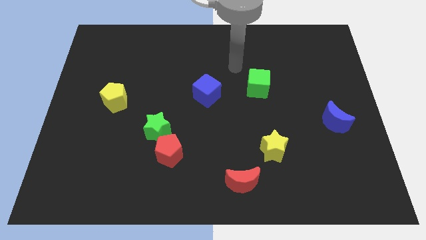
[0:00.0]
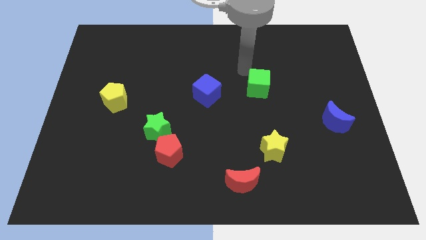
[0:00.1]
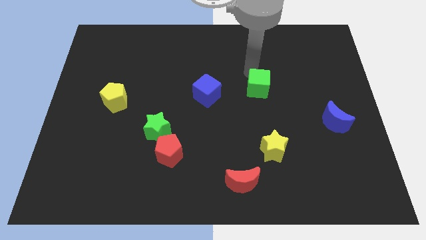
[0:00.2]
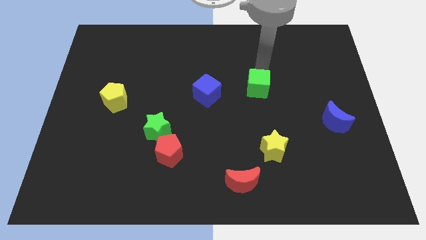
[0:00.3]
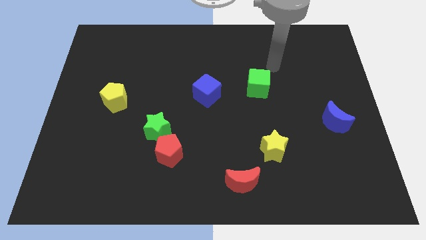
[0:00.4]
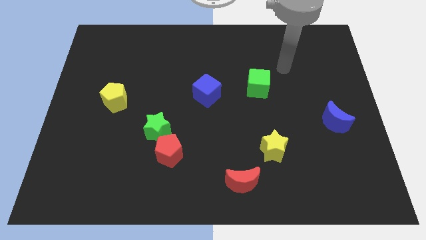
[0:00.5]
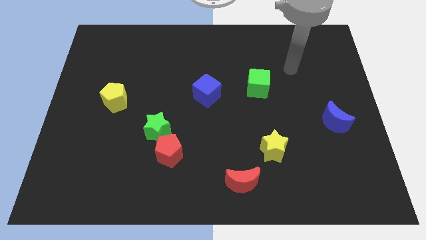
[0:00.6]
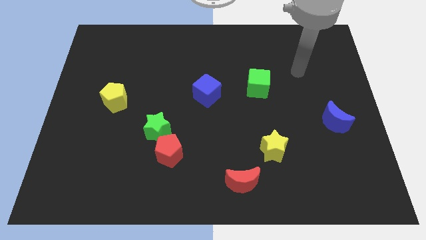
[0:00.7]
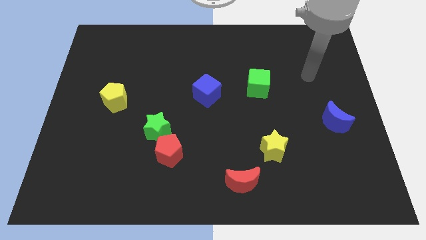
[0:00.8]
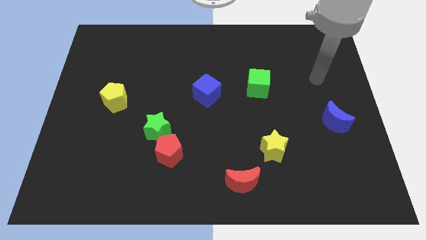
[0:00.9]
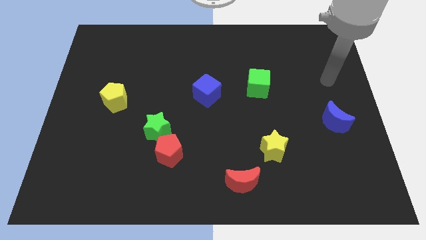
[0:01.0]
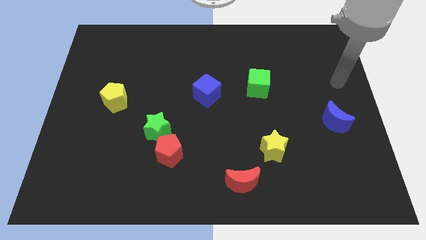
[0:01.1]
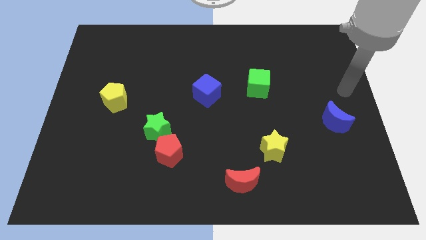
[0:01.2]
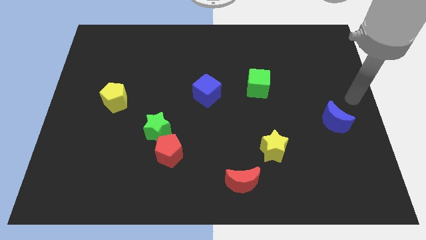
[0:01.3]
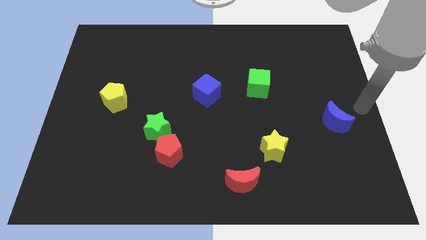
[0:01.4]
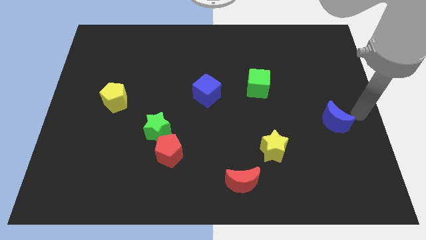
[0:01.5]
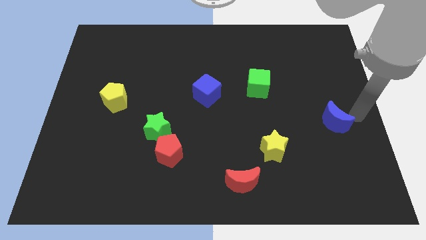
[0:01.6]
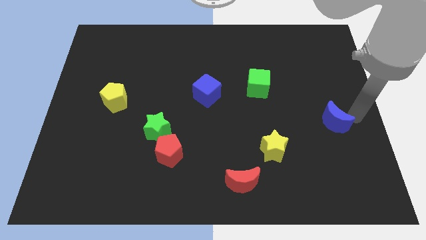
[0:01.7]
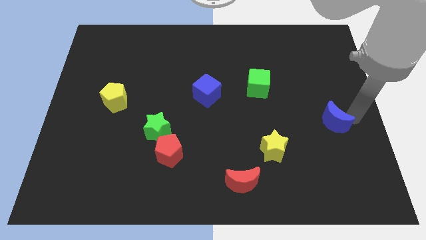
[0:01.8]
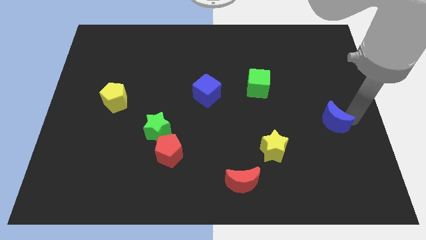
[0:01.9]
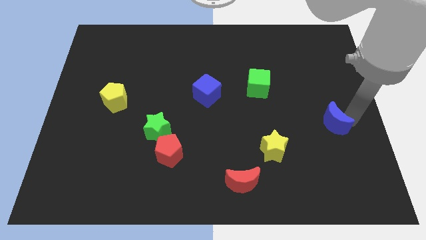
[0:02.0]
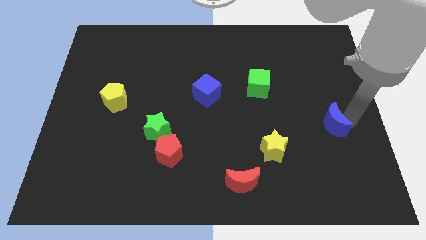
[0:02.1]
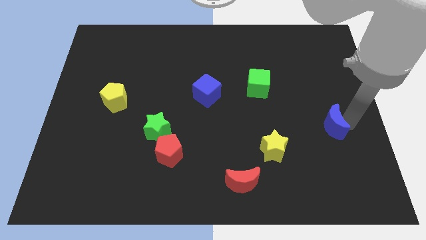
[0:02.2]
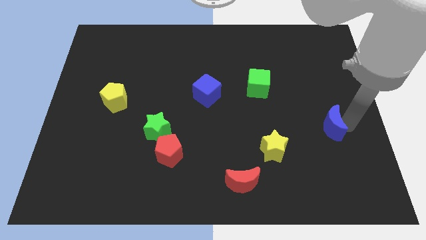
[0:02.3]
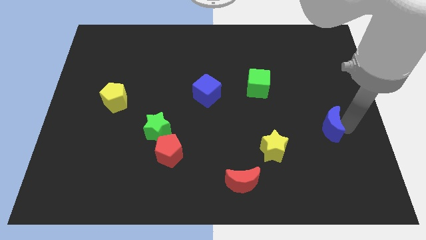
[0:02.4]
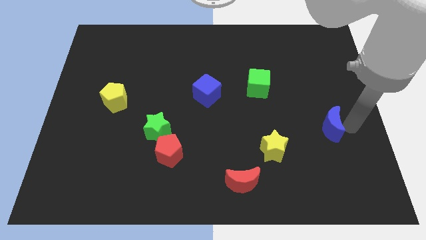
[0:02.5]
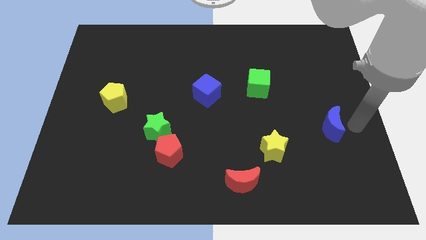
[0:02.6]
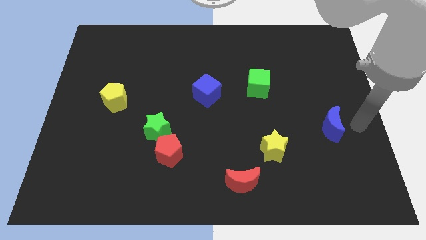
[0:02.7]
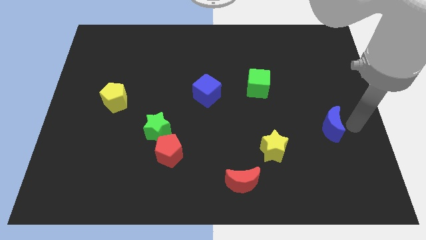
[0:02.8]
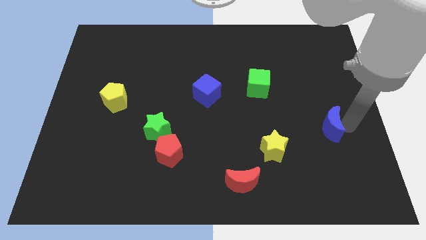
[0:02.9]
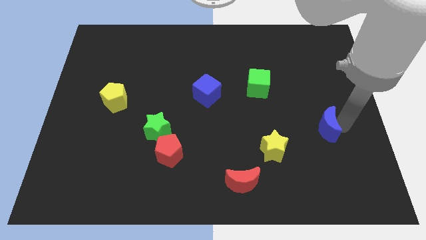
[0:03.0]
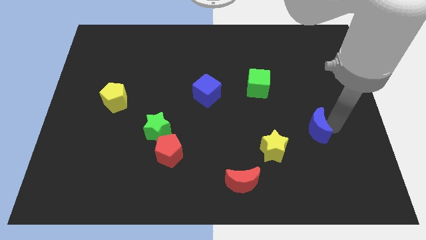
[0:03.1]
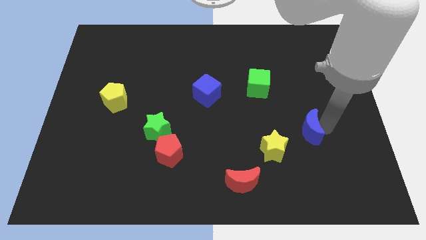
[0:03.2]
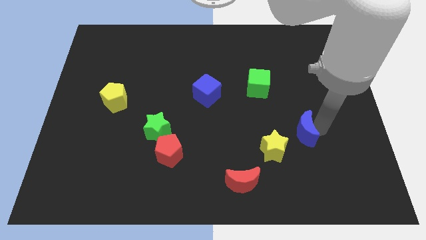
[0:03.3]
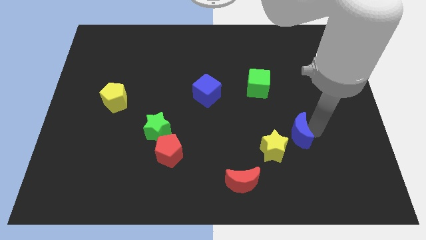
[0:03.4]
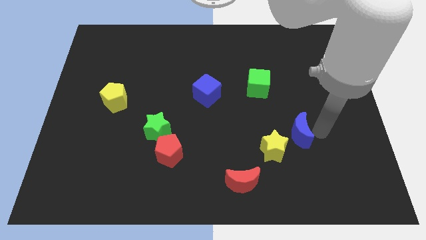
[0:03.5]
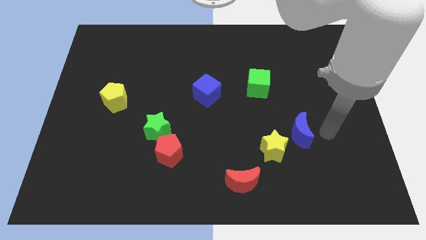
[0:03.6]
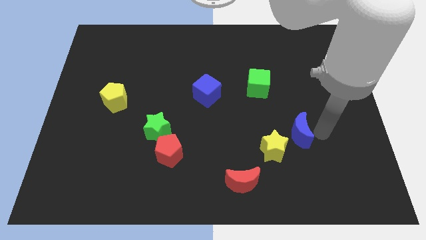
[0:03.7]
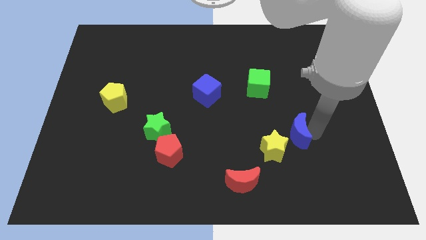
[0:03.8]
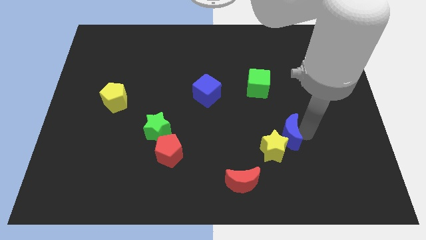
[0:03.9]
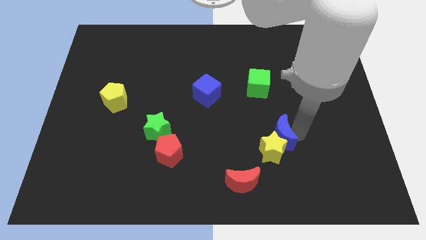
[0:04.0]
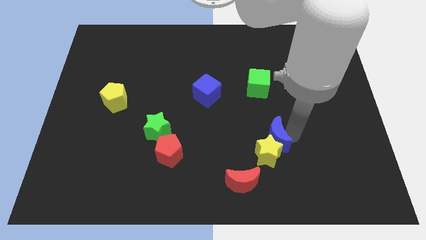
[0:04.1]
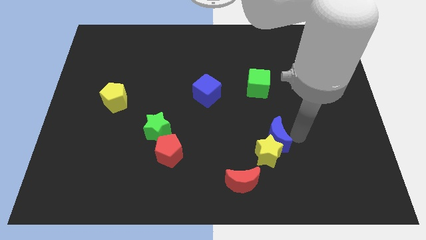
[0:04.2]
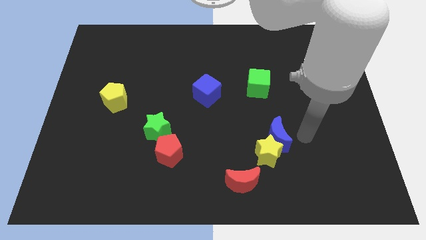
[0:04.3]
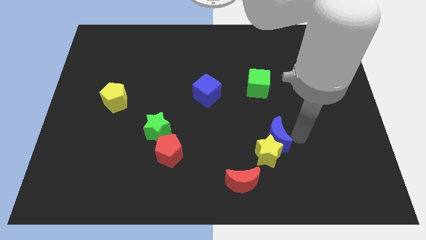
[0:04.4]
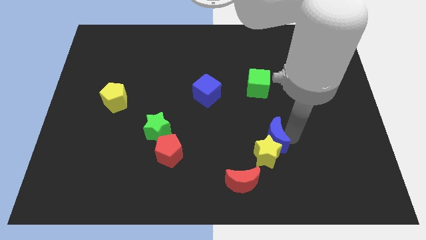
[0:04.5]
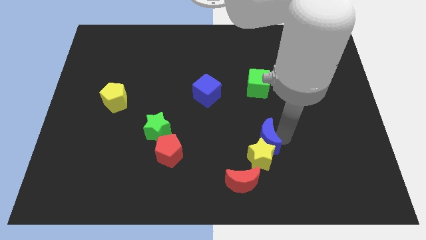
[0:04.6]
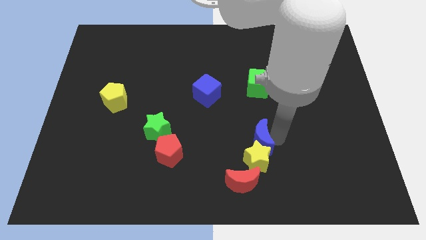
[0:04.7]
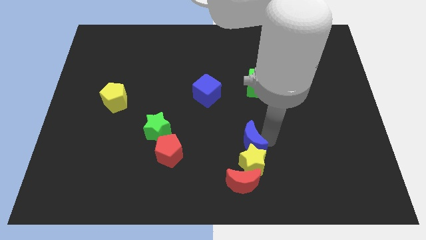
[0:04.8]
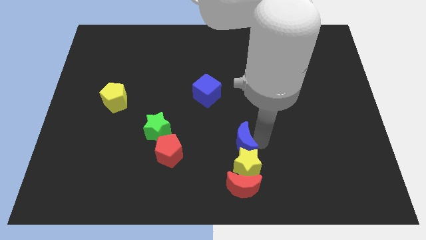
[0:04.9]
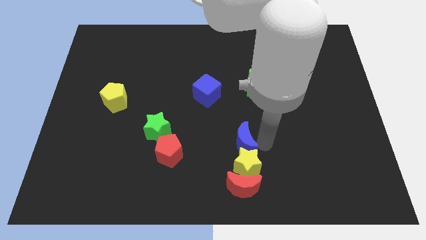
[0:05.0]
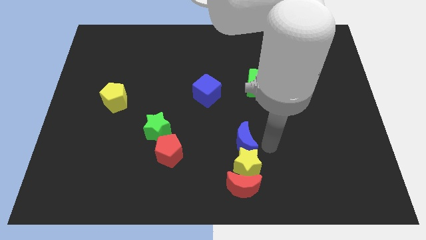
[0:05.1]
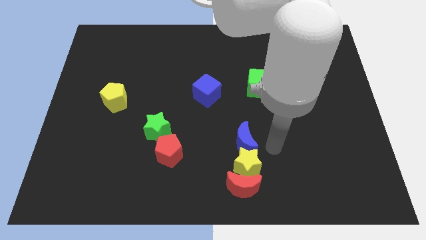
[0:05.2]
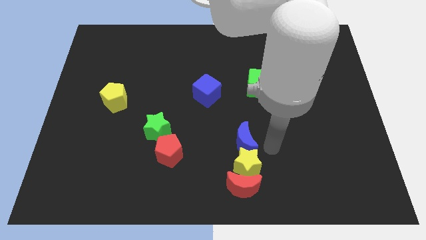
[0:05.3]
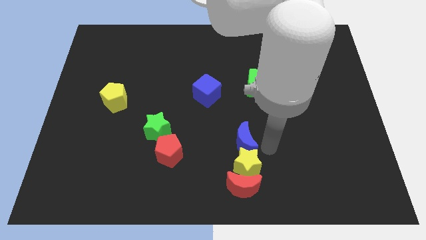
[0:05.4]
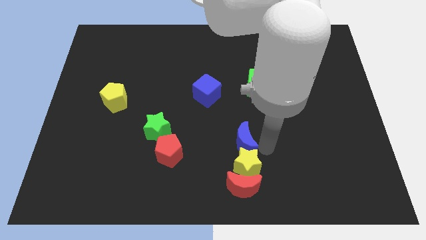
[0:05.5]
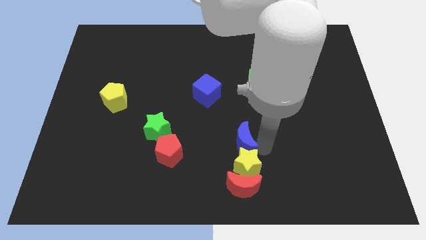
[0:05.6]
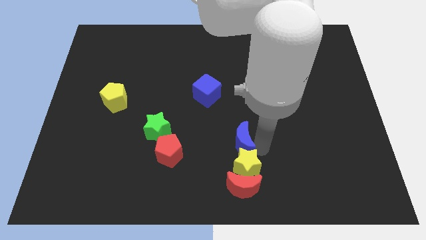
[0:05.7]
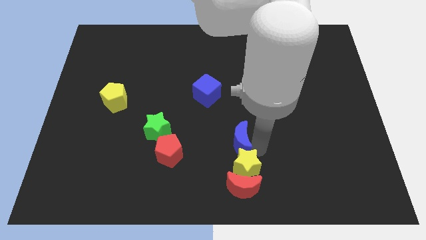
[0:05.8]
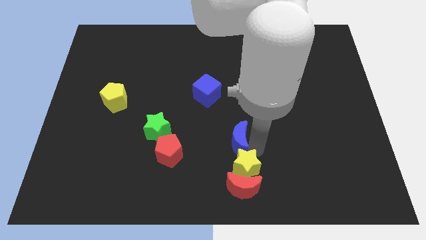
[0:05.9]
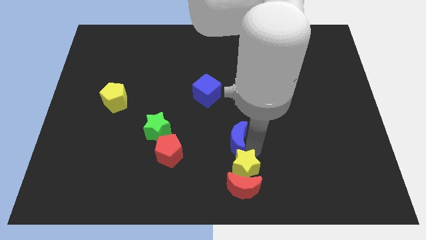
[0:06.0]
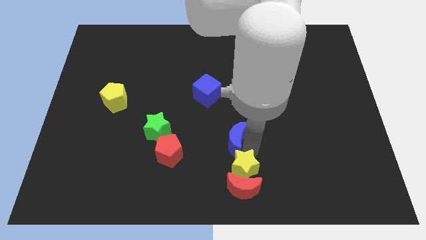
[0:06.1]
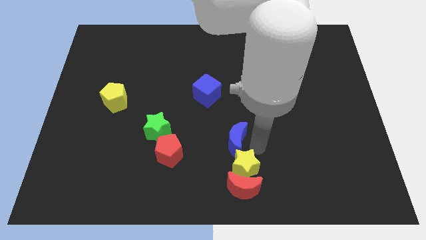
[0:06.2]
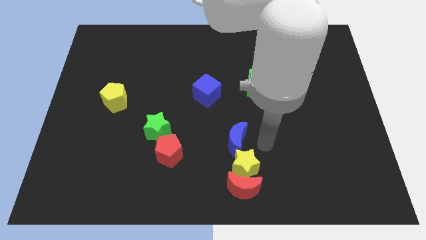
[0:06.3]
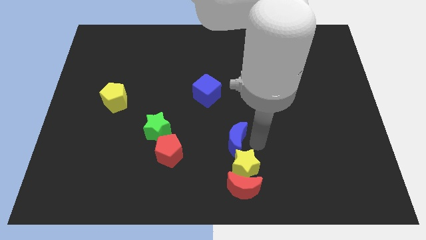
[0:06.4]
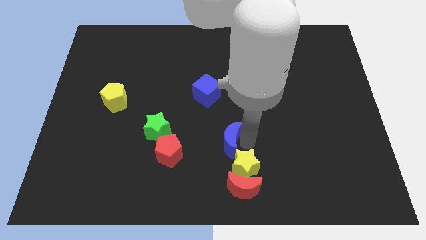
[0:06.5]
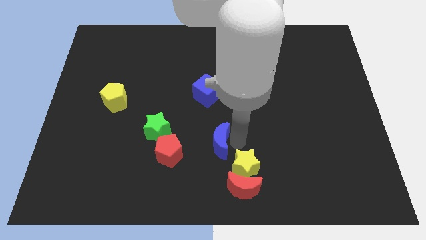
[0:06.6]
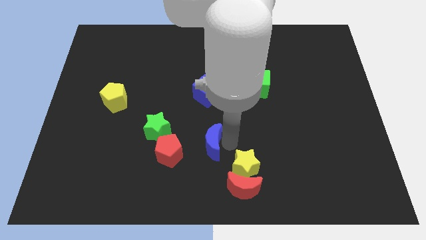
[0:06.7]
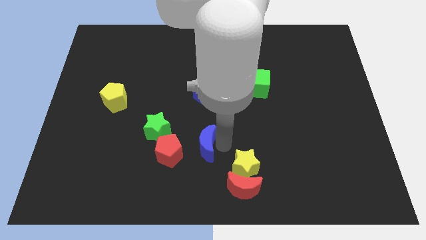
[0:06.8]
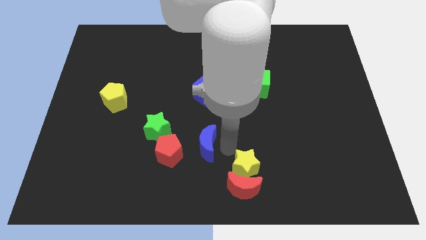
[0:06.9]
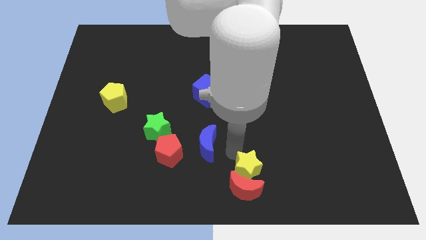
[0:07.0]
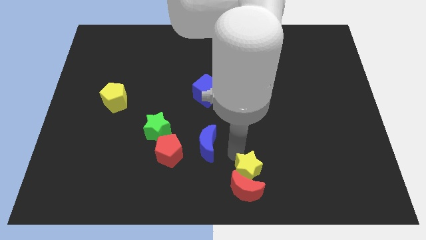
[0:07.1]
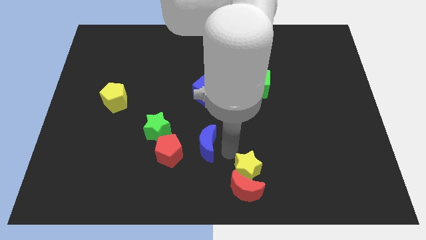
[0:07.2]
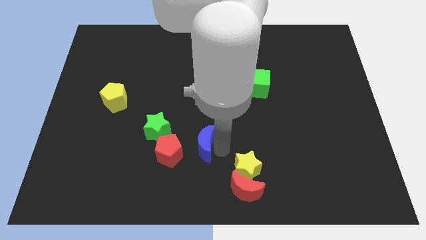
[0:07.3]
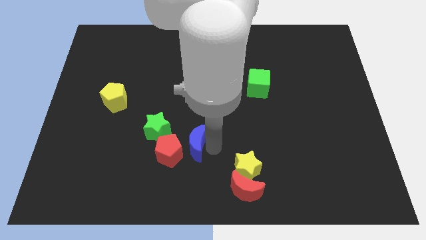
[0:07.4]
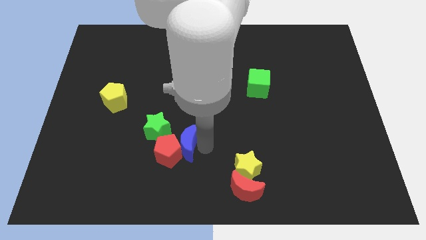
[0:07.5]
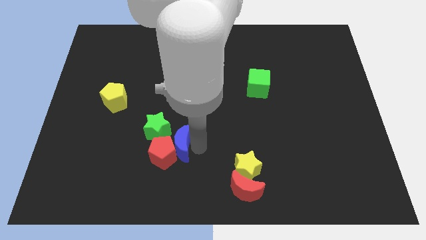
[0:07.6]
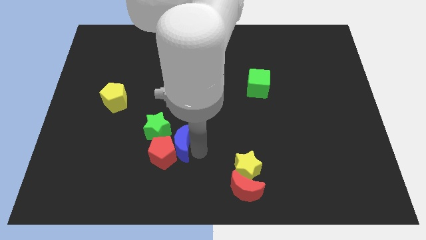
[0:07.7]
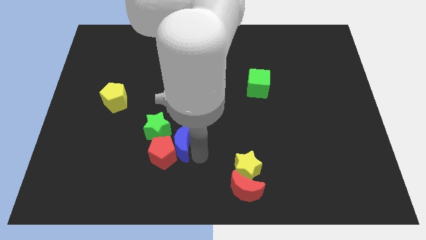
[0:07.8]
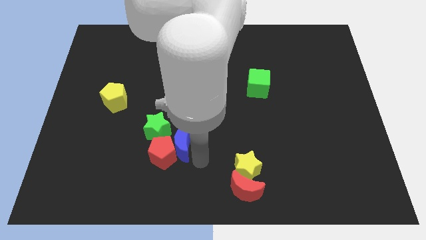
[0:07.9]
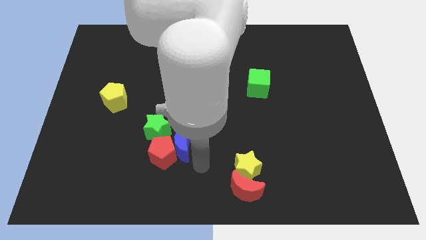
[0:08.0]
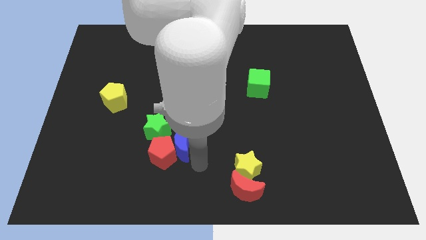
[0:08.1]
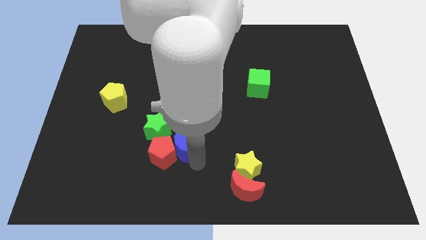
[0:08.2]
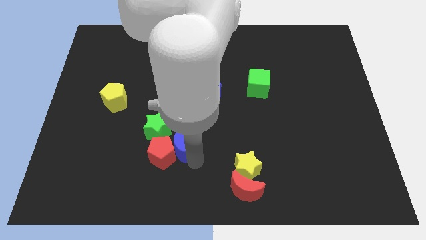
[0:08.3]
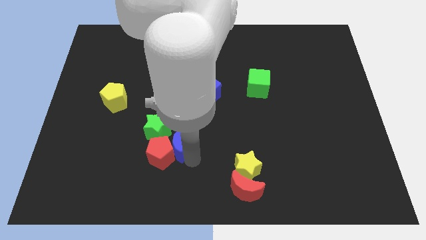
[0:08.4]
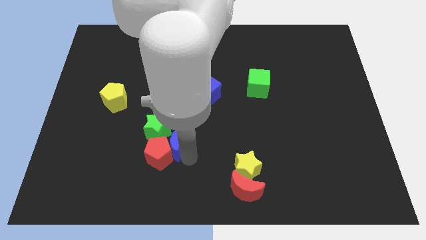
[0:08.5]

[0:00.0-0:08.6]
slide the blue moon next to the green star
